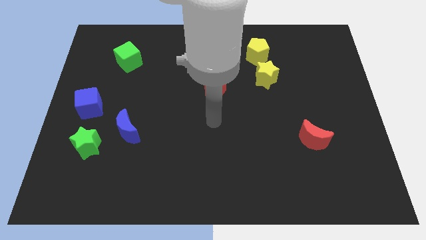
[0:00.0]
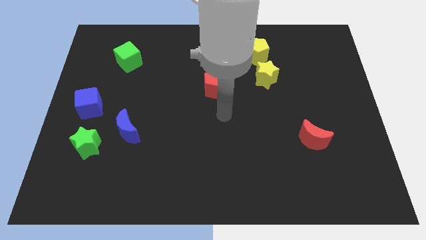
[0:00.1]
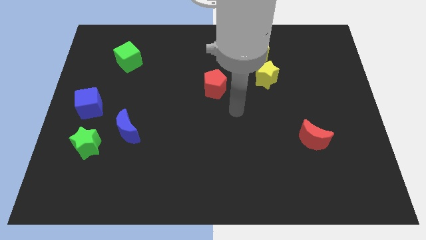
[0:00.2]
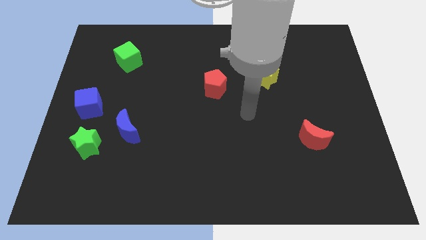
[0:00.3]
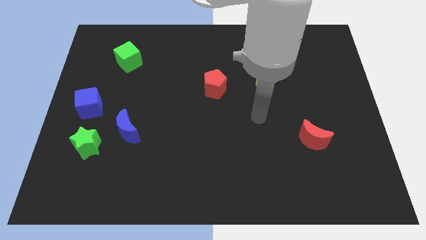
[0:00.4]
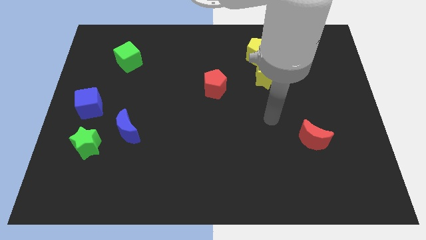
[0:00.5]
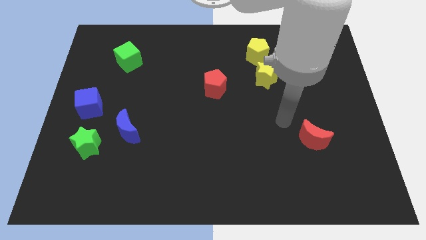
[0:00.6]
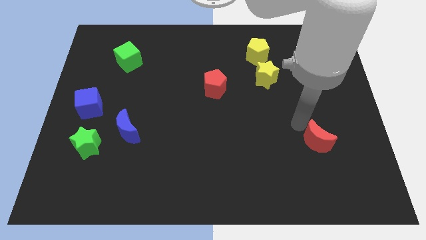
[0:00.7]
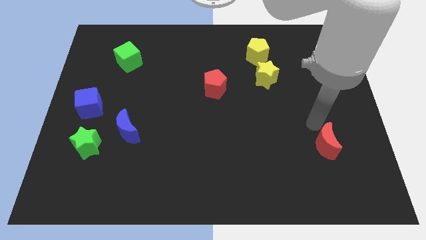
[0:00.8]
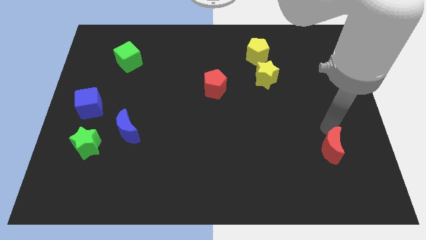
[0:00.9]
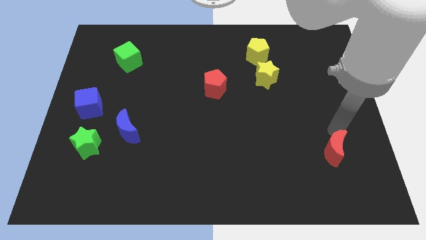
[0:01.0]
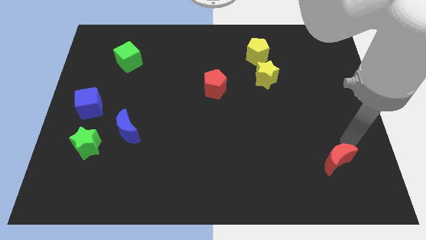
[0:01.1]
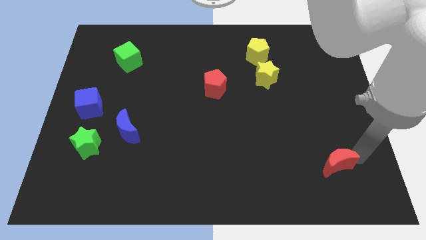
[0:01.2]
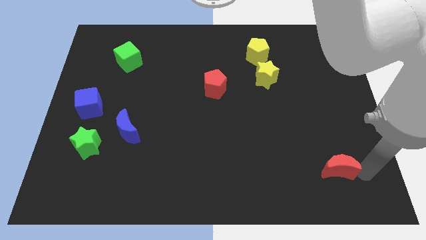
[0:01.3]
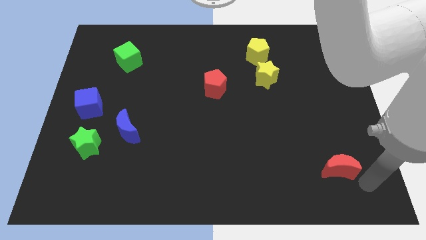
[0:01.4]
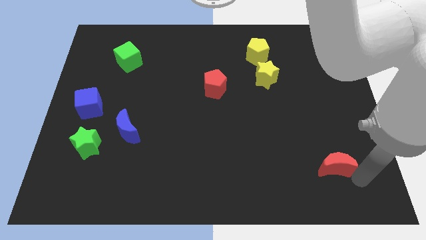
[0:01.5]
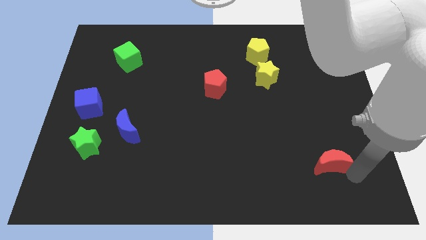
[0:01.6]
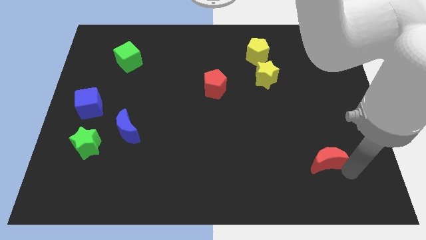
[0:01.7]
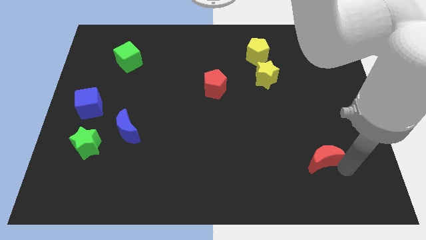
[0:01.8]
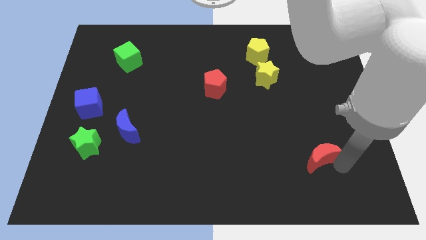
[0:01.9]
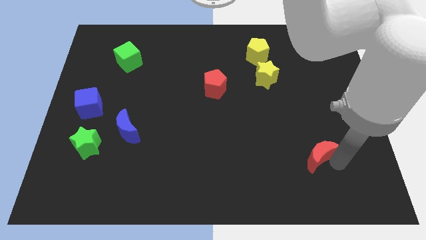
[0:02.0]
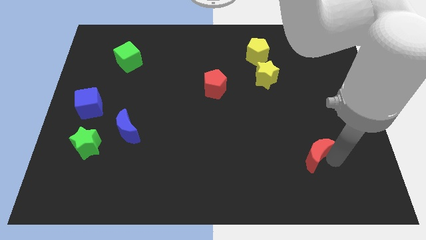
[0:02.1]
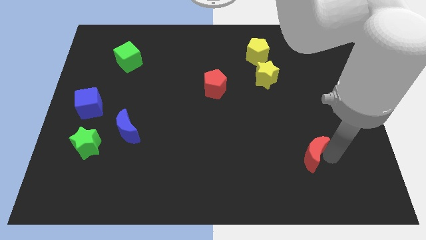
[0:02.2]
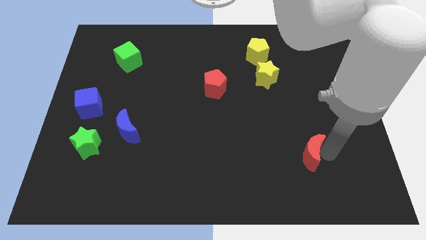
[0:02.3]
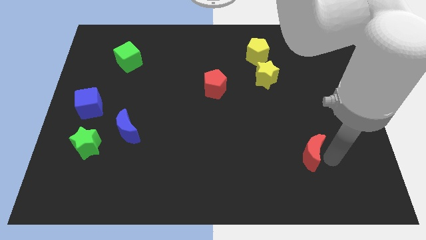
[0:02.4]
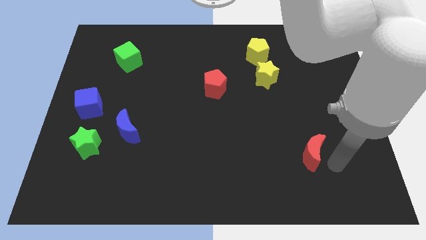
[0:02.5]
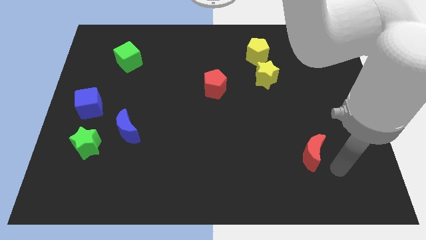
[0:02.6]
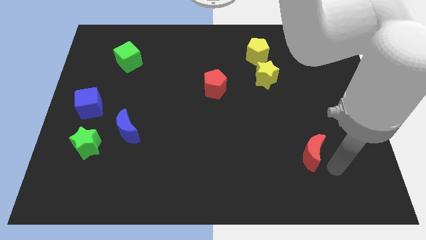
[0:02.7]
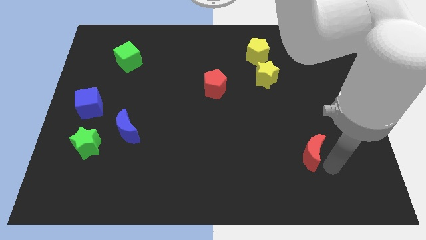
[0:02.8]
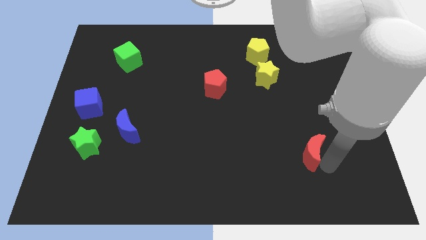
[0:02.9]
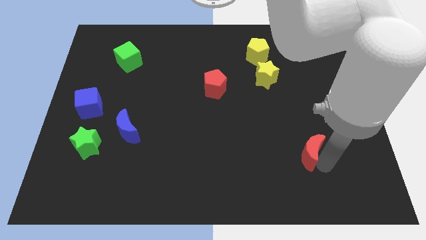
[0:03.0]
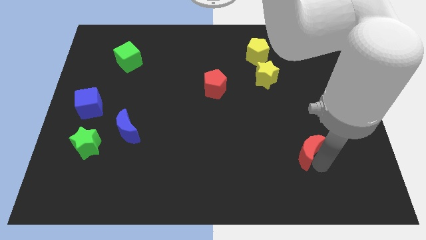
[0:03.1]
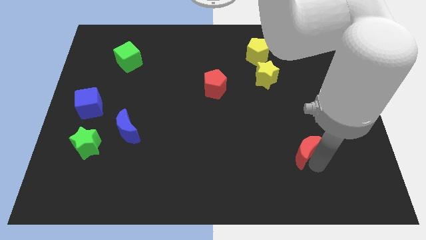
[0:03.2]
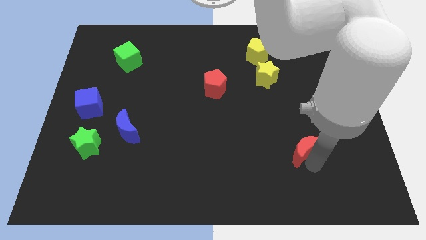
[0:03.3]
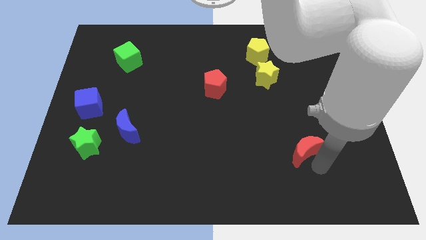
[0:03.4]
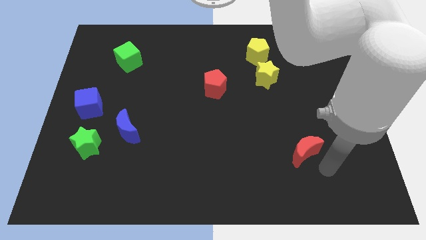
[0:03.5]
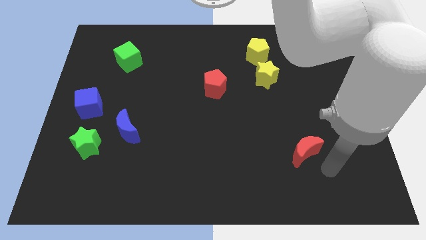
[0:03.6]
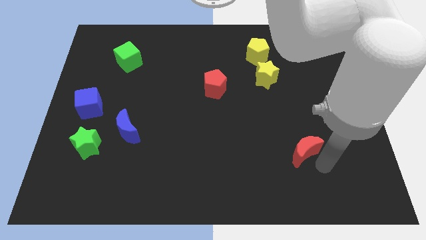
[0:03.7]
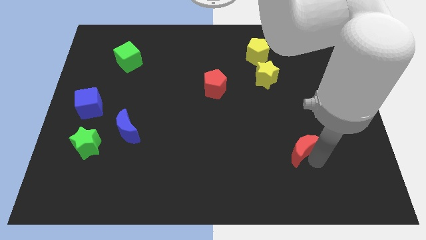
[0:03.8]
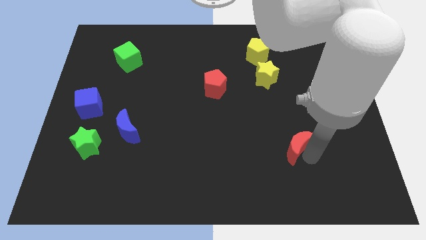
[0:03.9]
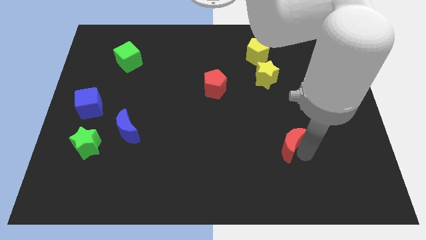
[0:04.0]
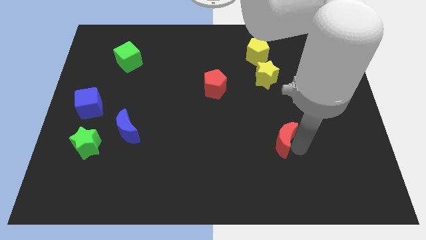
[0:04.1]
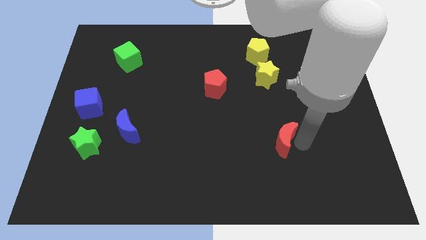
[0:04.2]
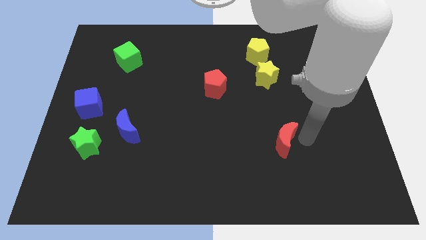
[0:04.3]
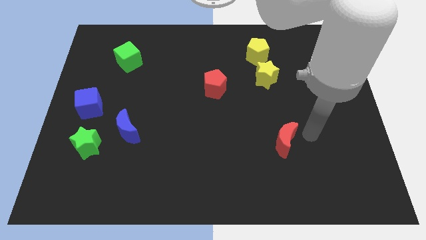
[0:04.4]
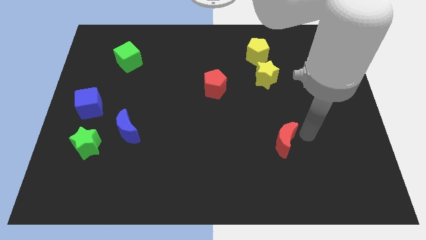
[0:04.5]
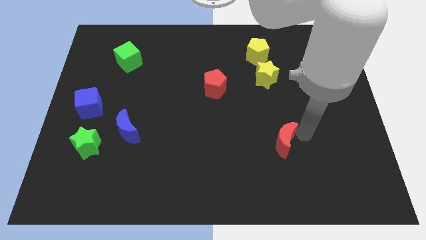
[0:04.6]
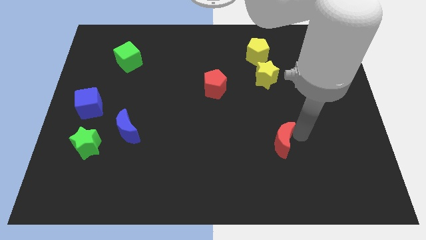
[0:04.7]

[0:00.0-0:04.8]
slightly move the red moon left

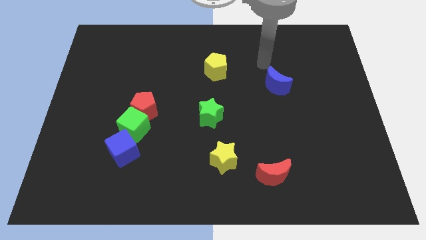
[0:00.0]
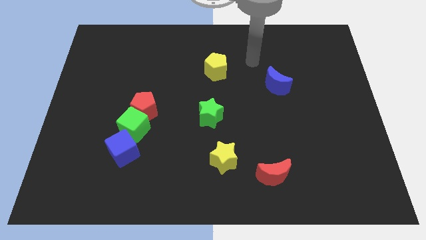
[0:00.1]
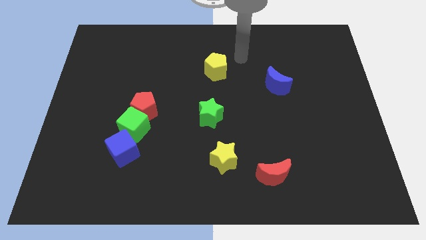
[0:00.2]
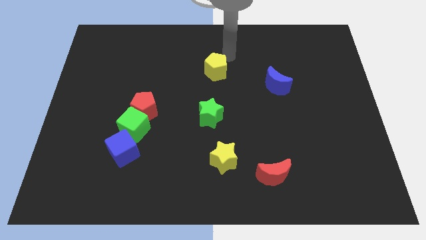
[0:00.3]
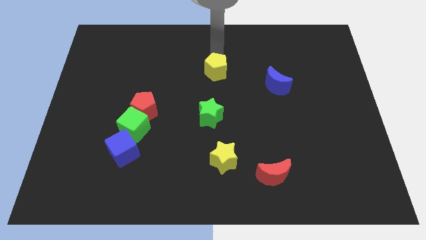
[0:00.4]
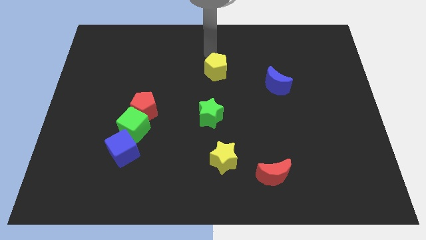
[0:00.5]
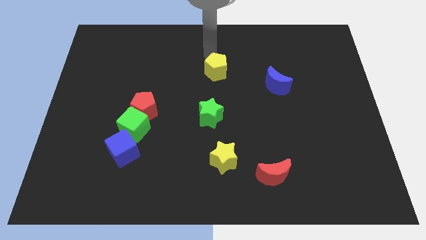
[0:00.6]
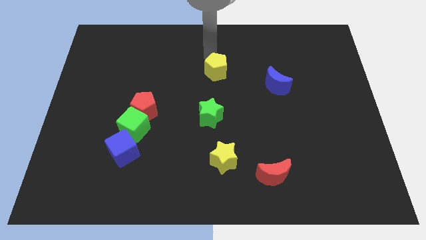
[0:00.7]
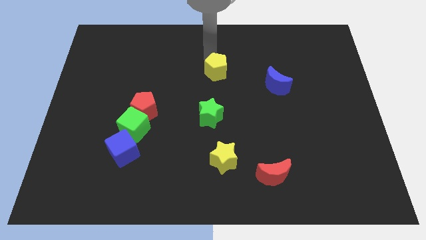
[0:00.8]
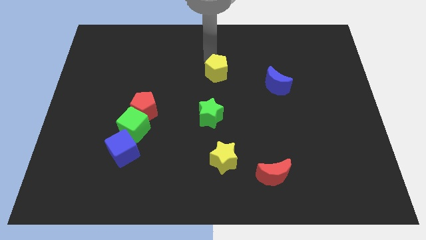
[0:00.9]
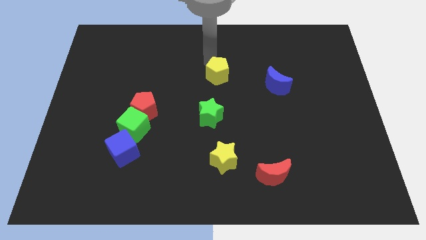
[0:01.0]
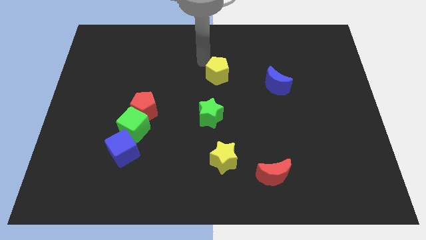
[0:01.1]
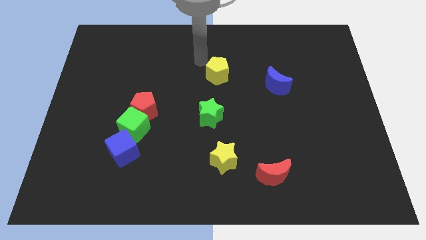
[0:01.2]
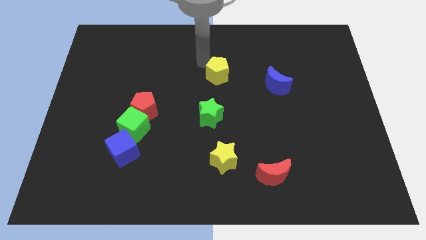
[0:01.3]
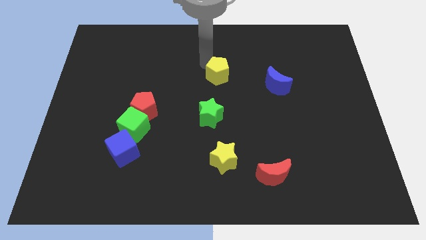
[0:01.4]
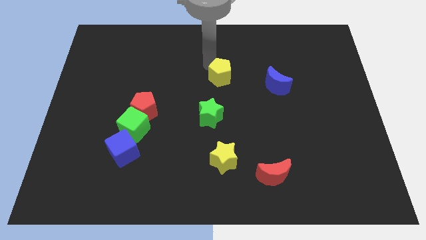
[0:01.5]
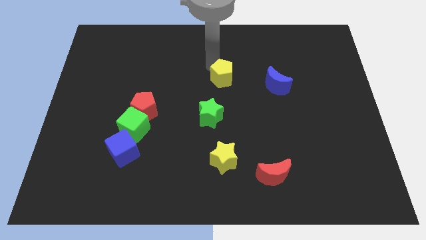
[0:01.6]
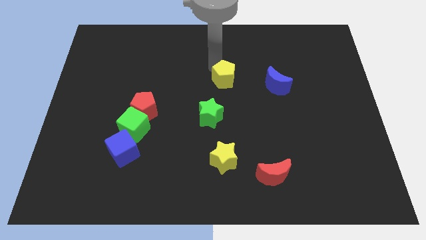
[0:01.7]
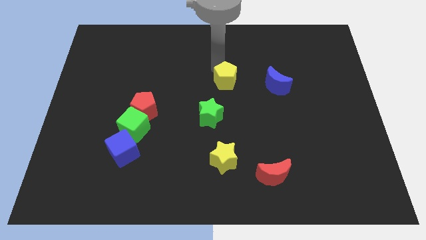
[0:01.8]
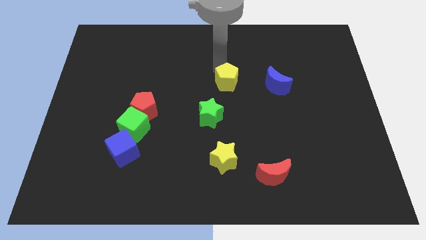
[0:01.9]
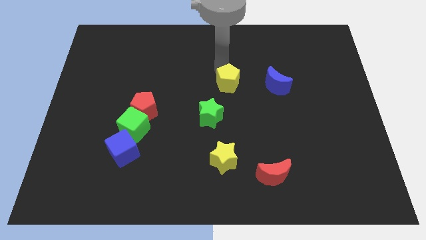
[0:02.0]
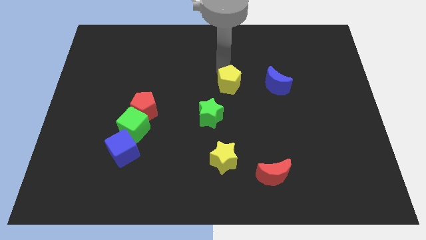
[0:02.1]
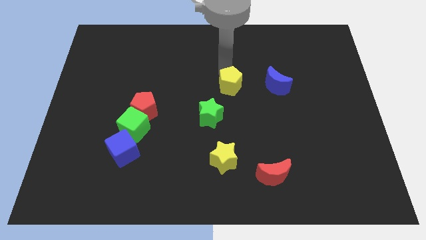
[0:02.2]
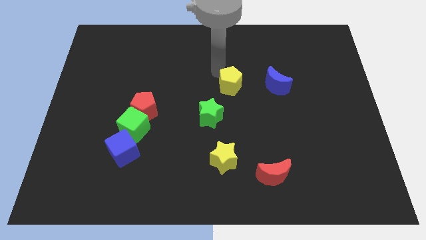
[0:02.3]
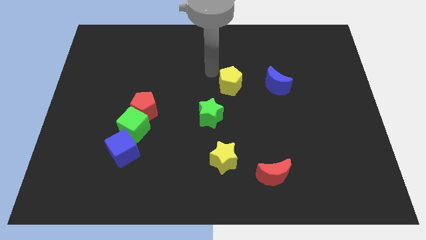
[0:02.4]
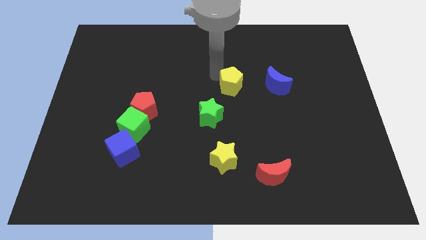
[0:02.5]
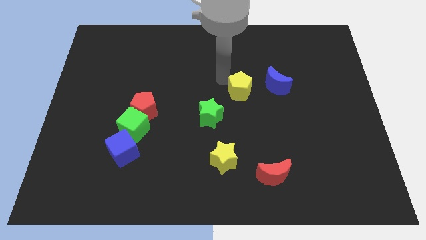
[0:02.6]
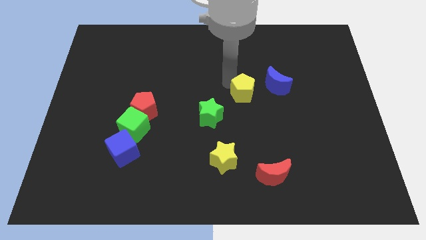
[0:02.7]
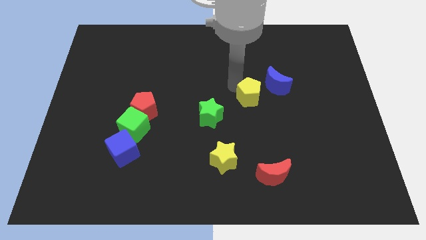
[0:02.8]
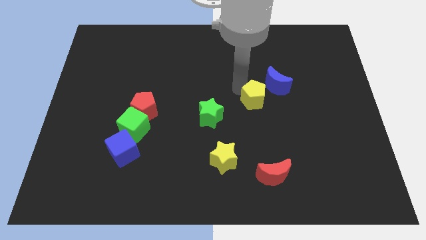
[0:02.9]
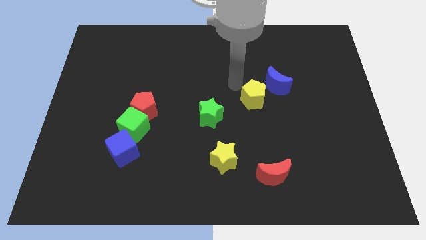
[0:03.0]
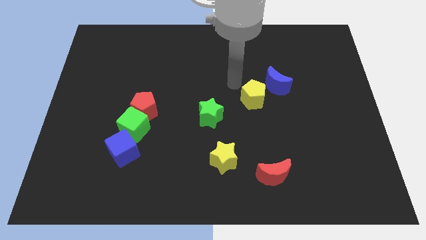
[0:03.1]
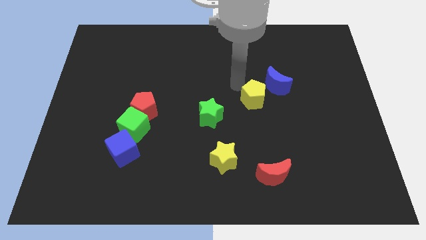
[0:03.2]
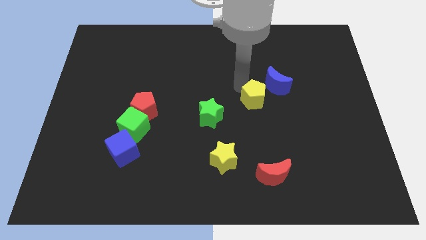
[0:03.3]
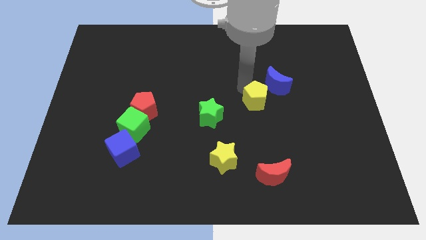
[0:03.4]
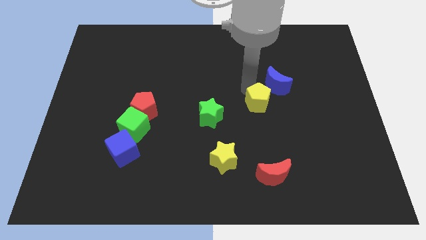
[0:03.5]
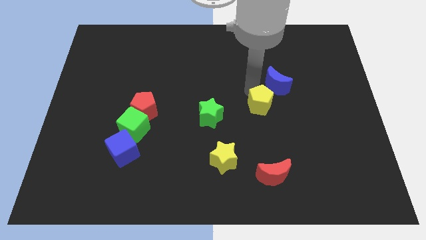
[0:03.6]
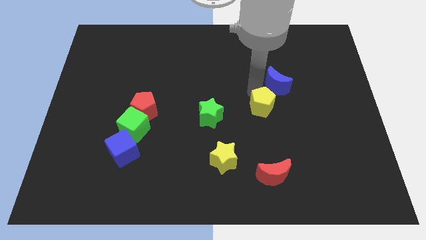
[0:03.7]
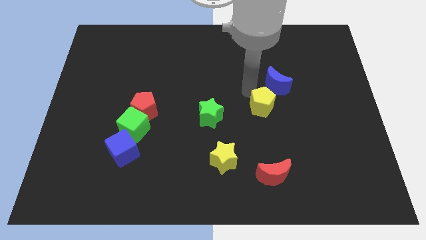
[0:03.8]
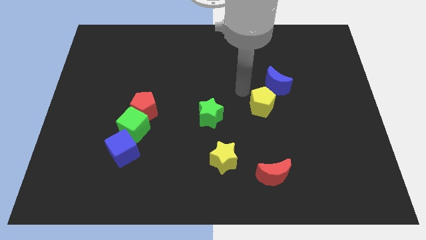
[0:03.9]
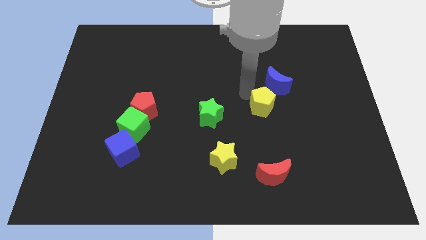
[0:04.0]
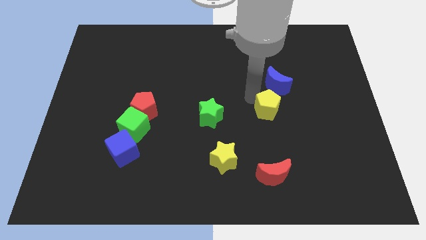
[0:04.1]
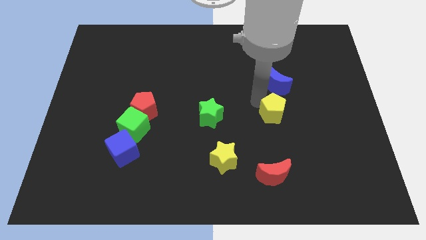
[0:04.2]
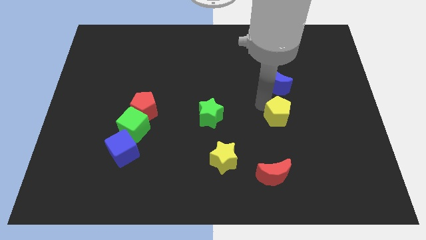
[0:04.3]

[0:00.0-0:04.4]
move the yellow pentagon down and to the right
